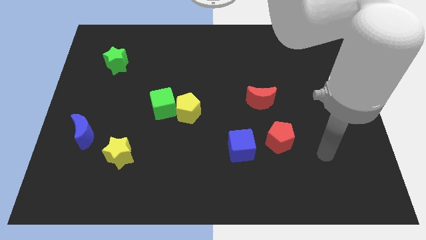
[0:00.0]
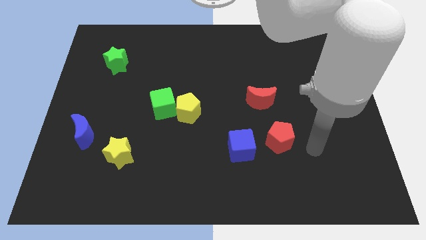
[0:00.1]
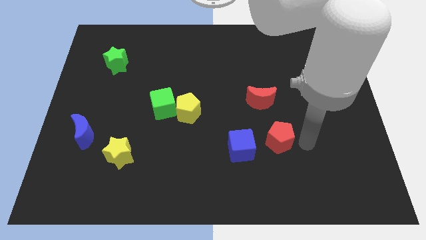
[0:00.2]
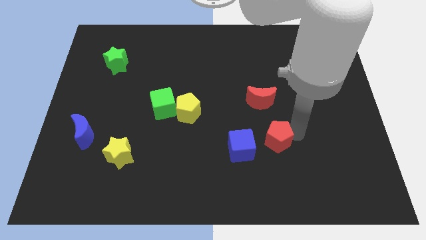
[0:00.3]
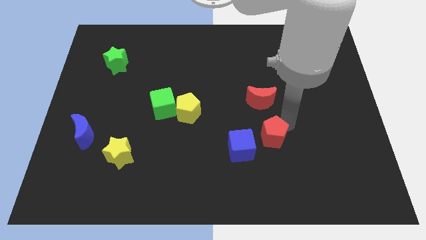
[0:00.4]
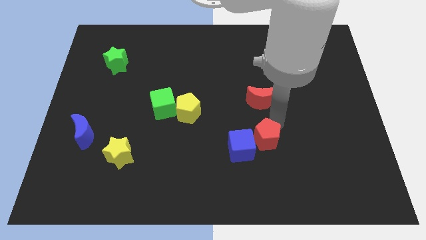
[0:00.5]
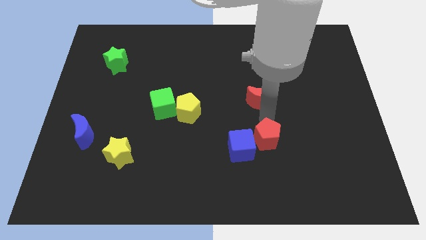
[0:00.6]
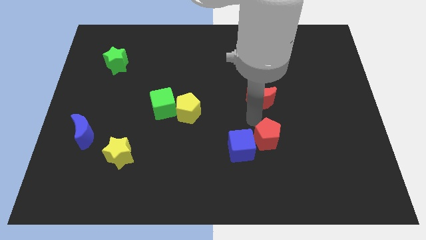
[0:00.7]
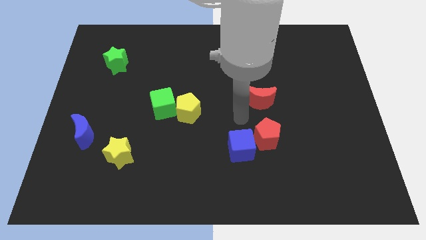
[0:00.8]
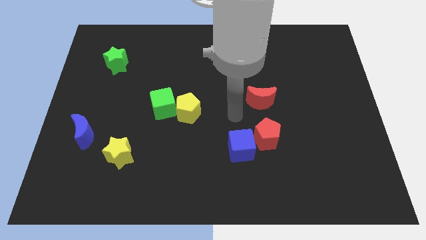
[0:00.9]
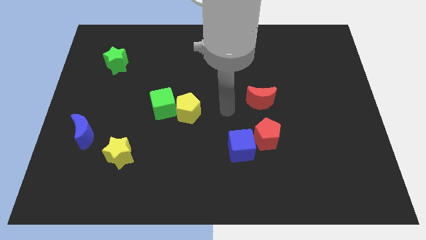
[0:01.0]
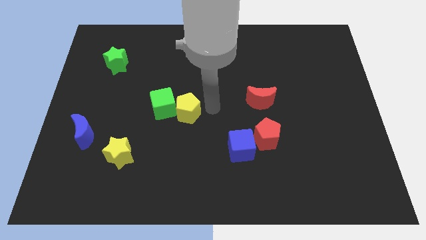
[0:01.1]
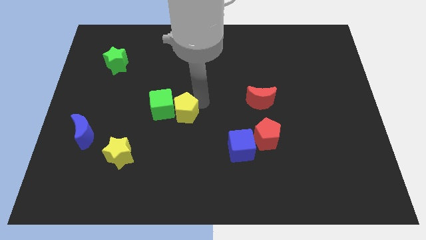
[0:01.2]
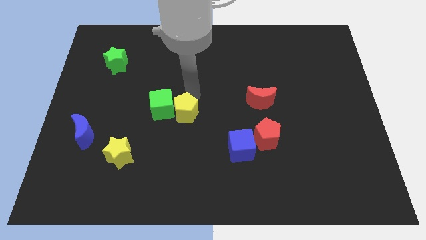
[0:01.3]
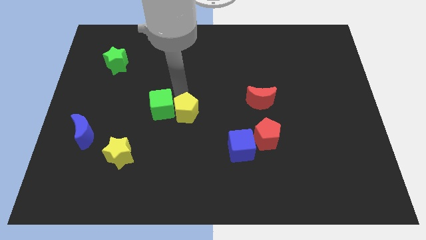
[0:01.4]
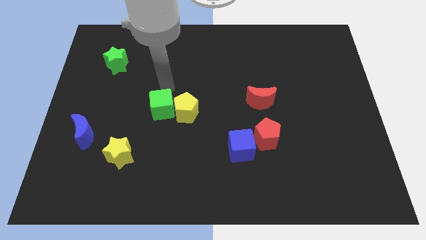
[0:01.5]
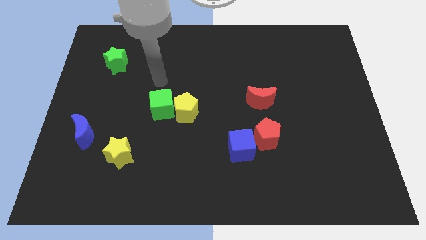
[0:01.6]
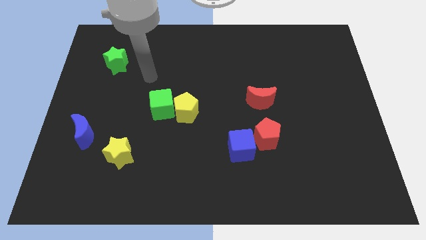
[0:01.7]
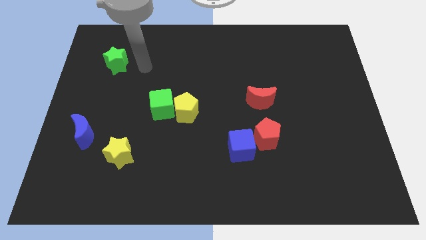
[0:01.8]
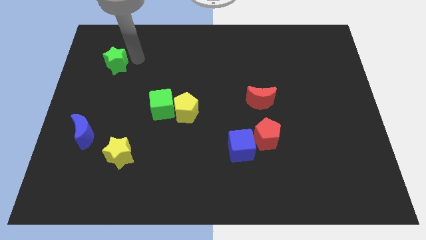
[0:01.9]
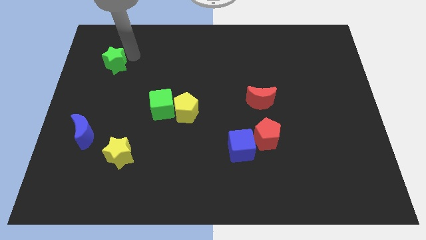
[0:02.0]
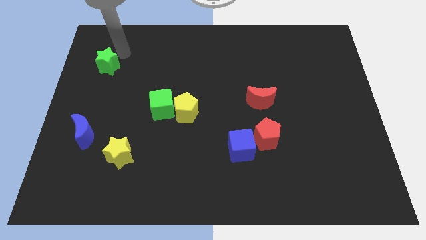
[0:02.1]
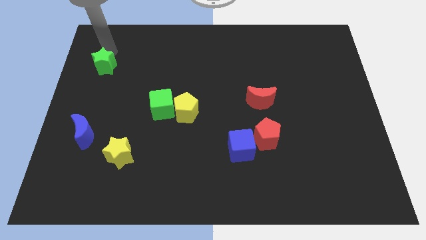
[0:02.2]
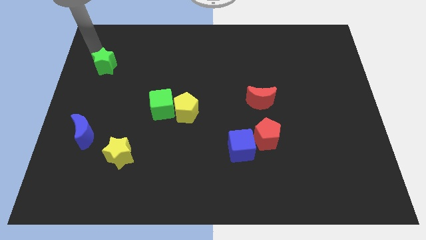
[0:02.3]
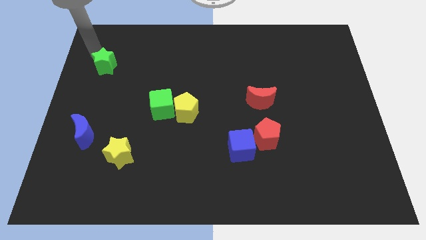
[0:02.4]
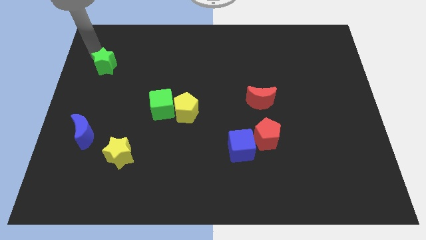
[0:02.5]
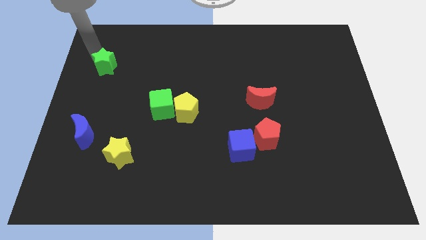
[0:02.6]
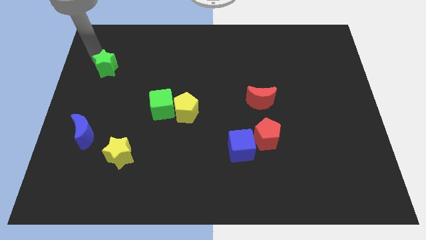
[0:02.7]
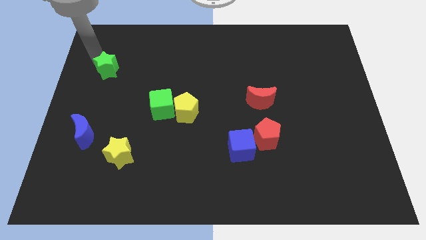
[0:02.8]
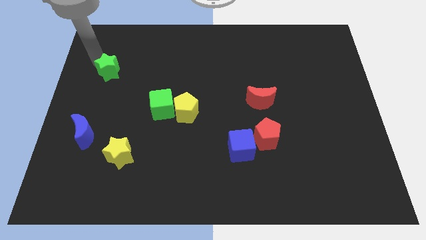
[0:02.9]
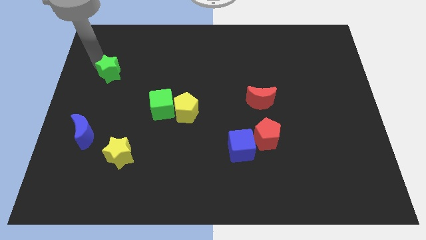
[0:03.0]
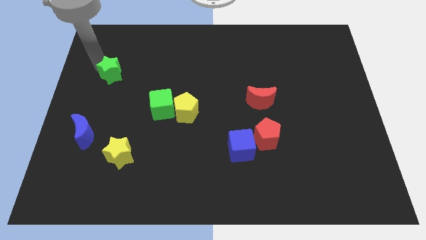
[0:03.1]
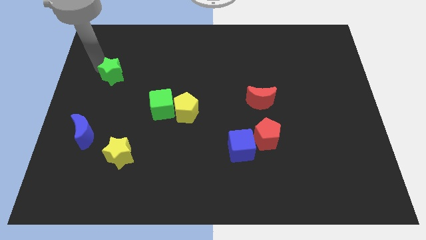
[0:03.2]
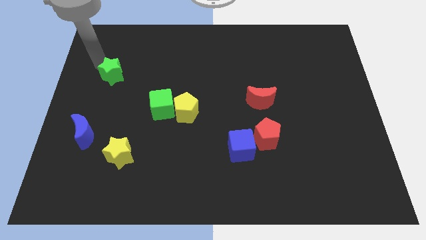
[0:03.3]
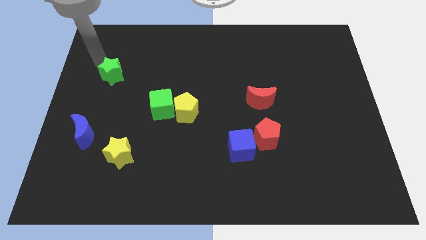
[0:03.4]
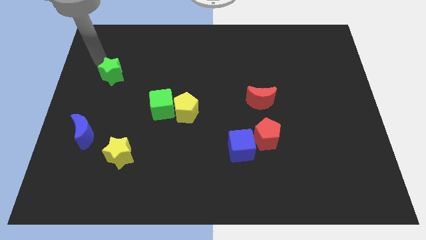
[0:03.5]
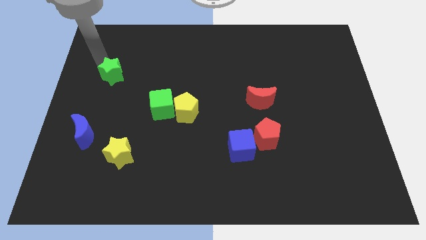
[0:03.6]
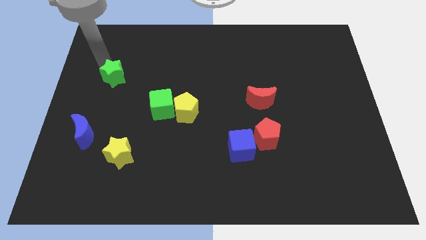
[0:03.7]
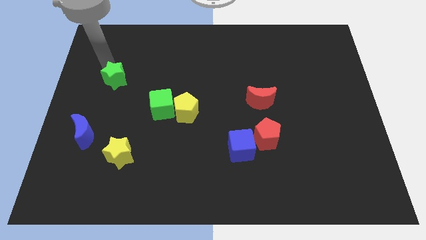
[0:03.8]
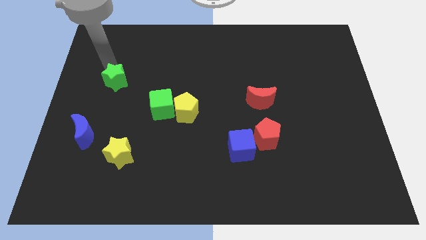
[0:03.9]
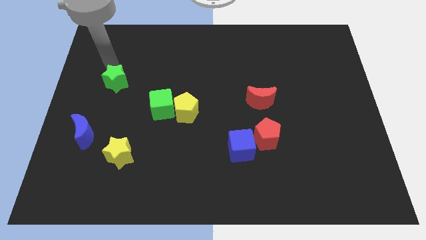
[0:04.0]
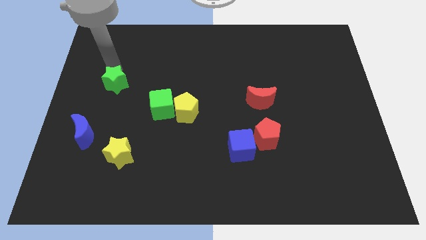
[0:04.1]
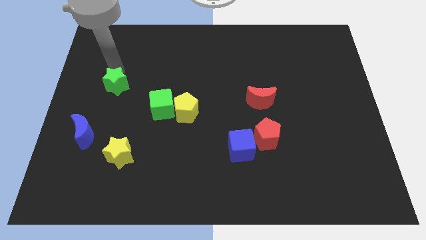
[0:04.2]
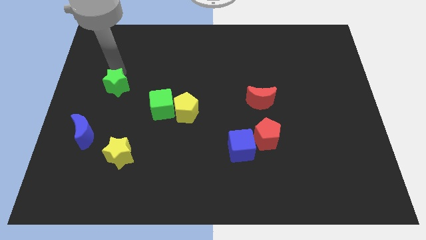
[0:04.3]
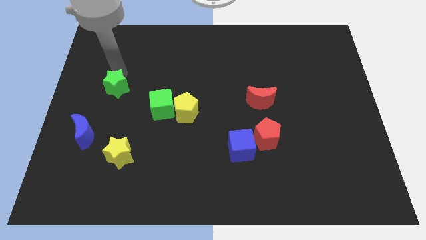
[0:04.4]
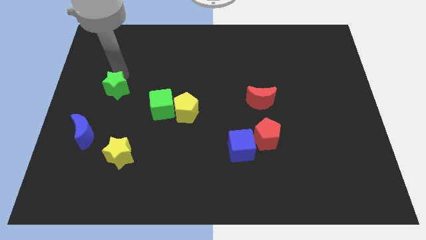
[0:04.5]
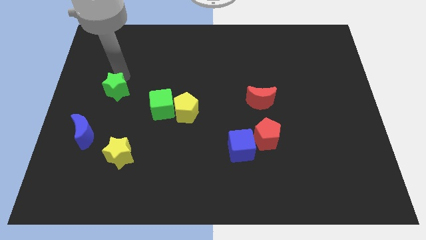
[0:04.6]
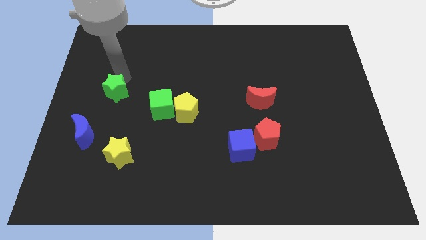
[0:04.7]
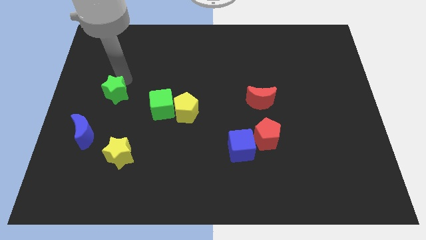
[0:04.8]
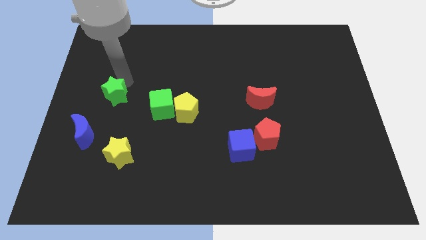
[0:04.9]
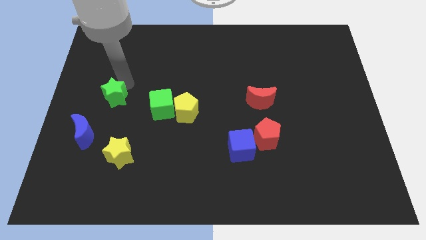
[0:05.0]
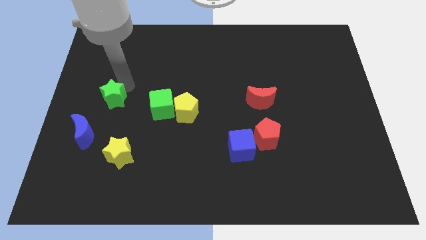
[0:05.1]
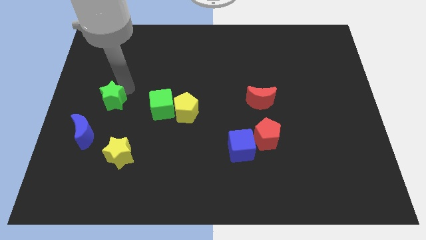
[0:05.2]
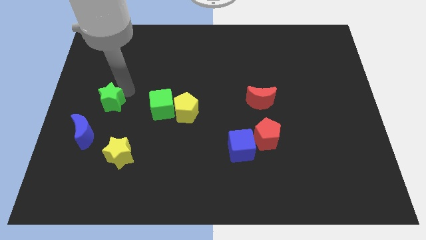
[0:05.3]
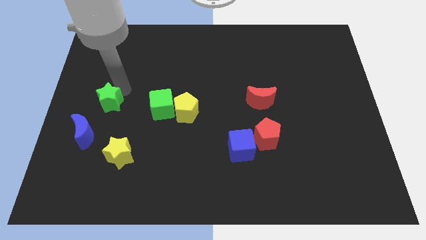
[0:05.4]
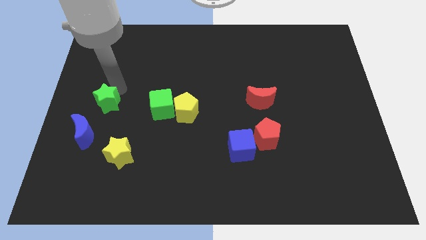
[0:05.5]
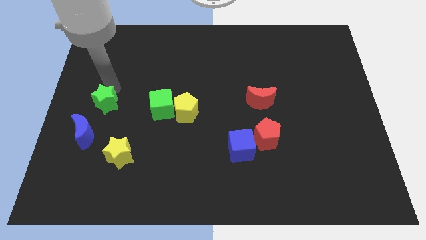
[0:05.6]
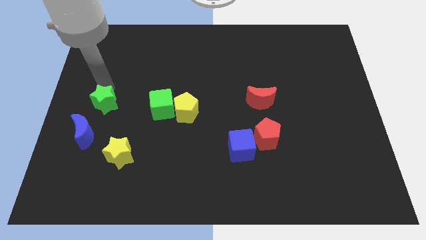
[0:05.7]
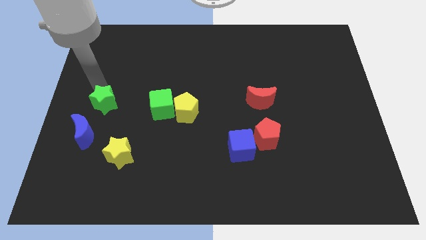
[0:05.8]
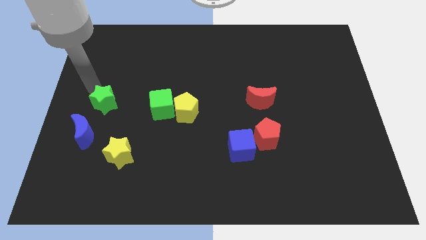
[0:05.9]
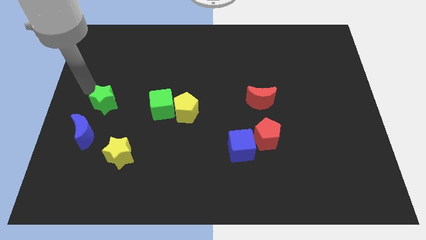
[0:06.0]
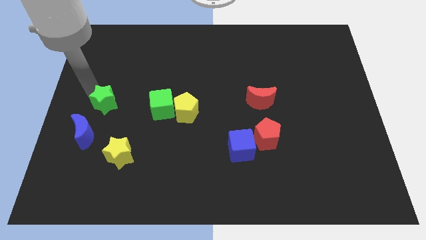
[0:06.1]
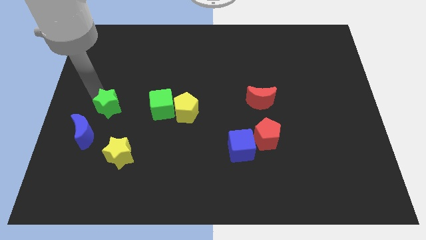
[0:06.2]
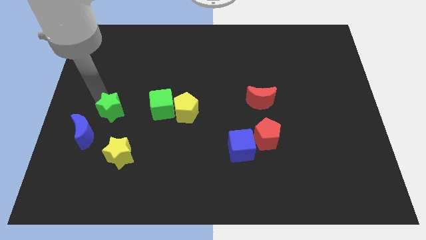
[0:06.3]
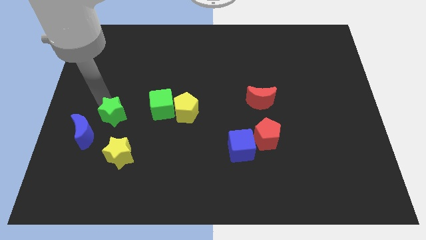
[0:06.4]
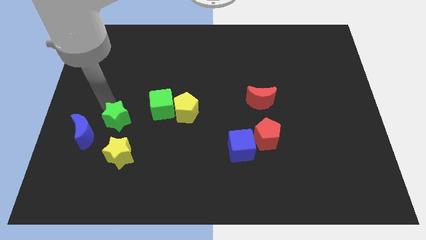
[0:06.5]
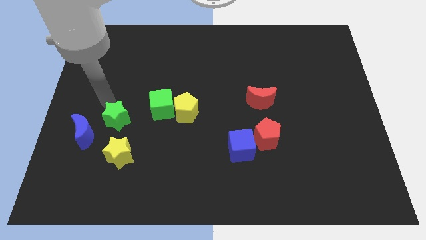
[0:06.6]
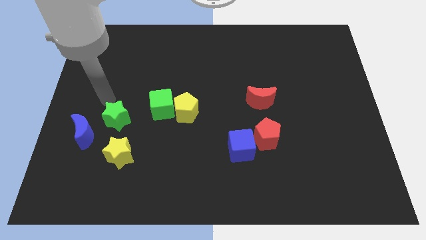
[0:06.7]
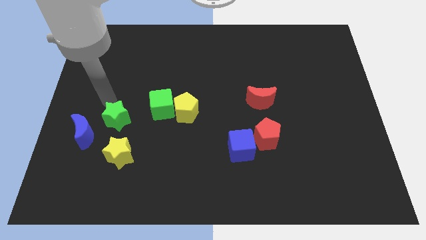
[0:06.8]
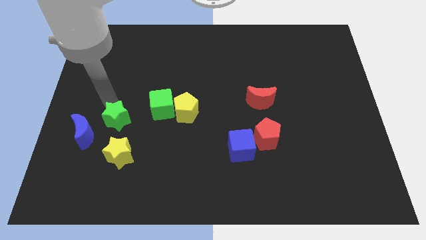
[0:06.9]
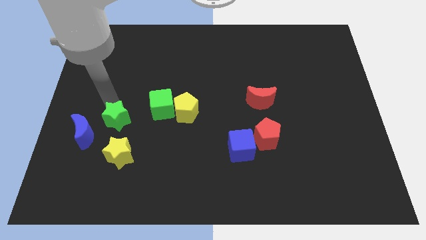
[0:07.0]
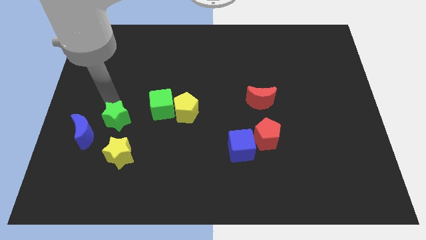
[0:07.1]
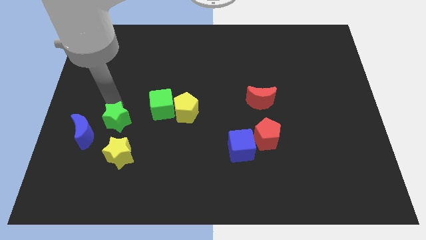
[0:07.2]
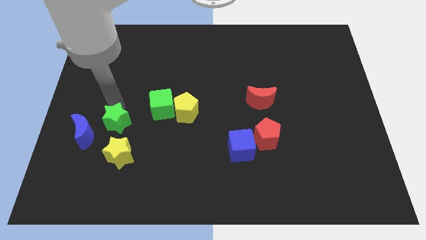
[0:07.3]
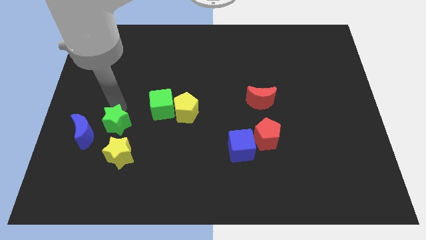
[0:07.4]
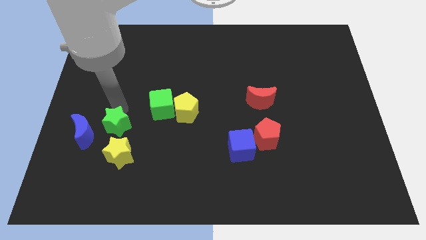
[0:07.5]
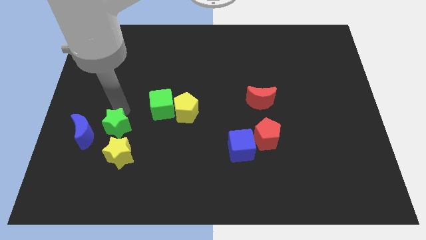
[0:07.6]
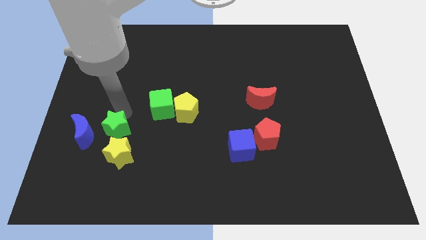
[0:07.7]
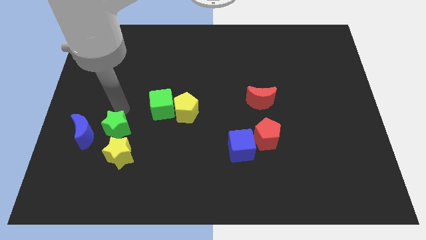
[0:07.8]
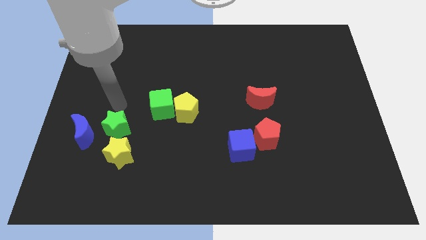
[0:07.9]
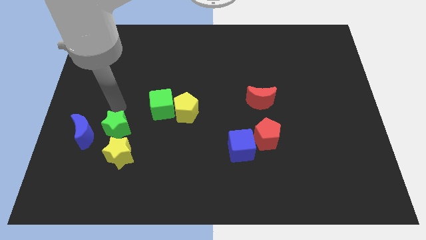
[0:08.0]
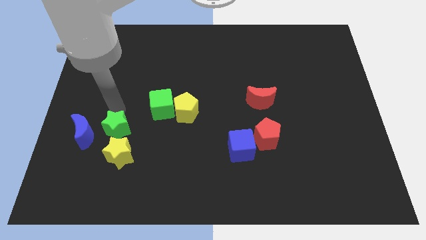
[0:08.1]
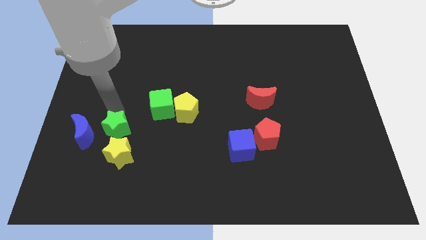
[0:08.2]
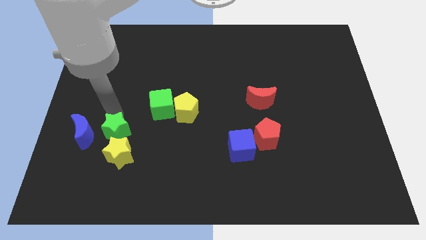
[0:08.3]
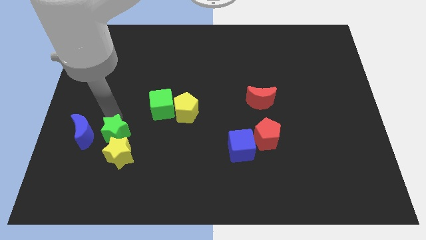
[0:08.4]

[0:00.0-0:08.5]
put the green star next to the yellow star
